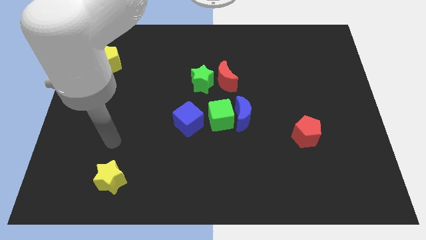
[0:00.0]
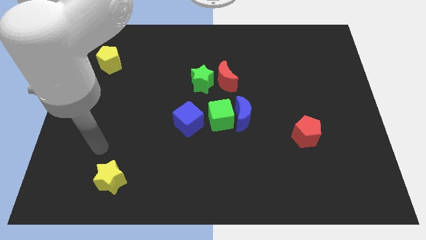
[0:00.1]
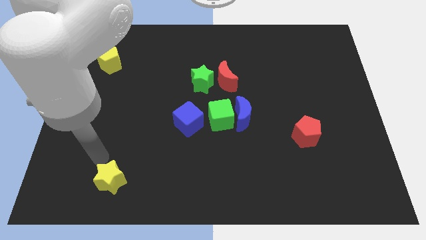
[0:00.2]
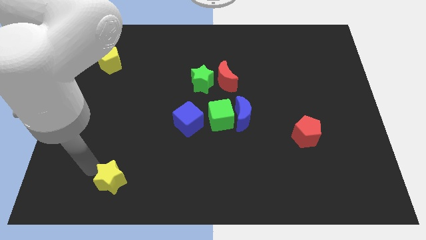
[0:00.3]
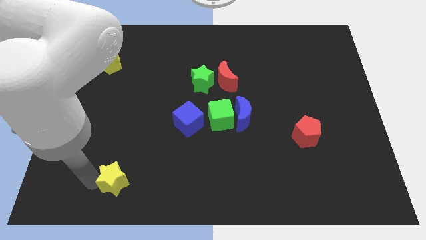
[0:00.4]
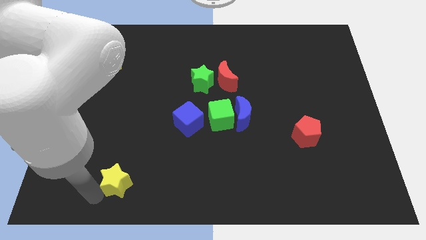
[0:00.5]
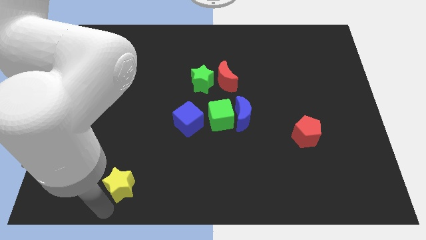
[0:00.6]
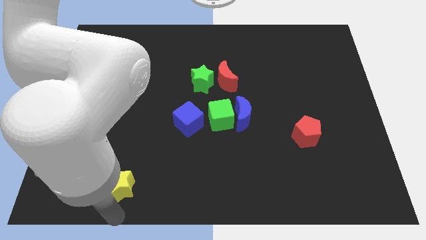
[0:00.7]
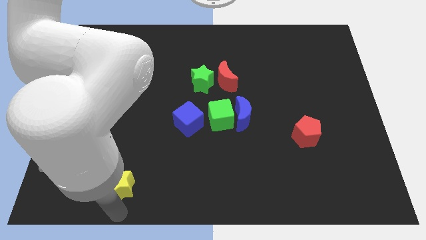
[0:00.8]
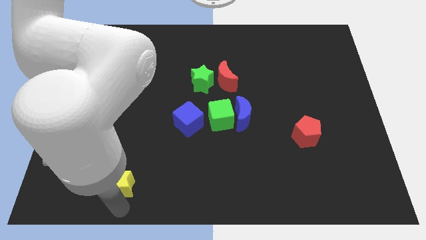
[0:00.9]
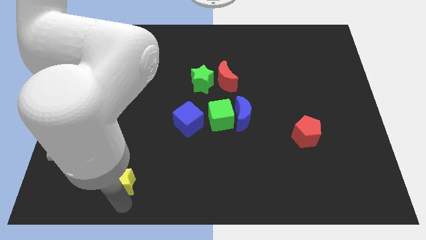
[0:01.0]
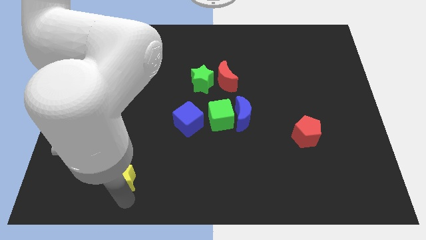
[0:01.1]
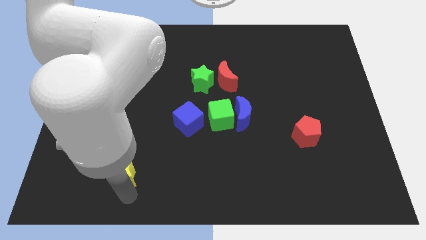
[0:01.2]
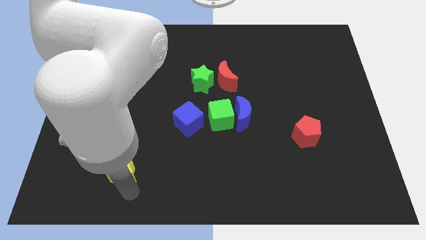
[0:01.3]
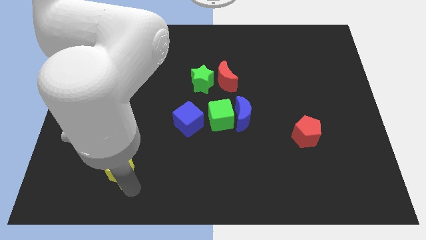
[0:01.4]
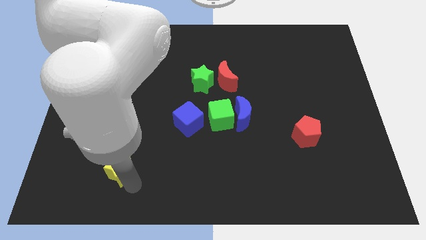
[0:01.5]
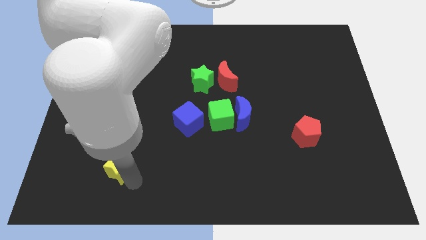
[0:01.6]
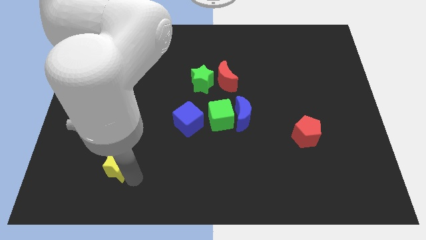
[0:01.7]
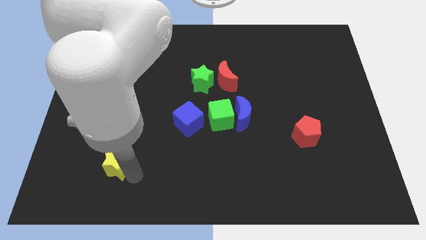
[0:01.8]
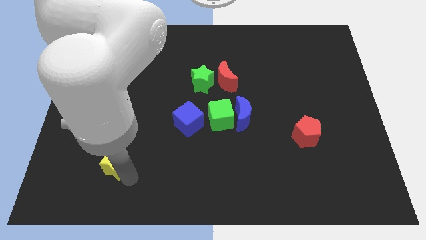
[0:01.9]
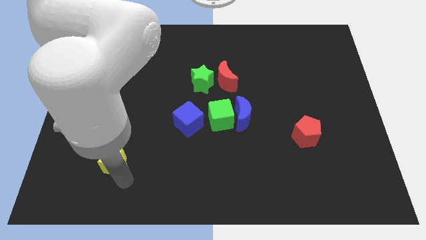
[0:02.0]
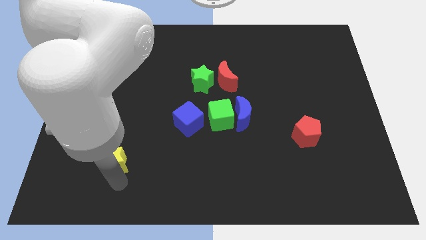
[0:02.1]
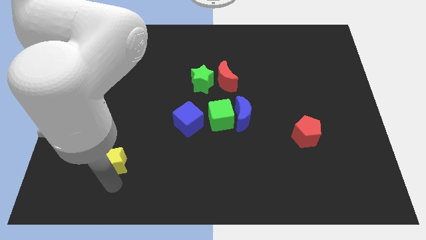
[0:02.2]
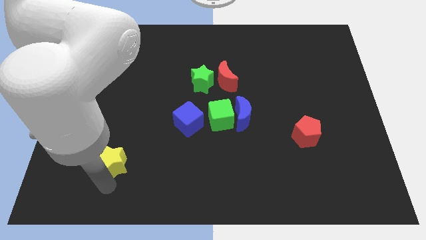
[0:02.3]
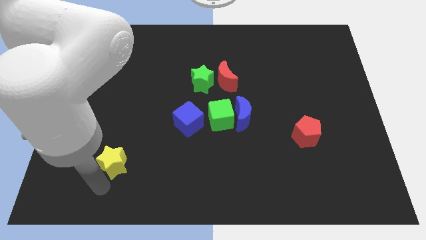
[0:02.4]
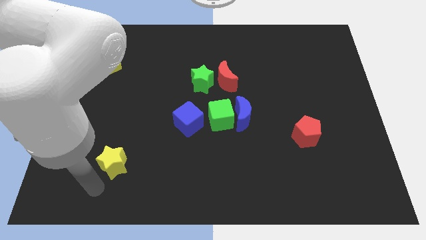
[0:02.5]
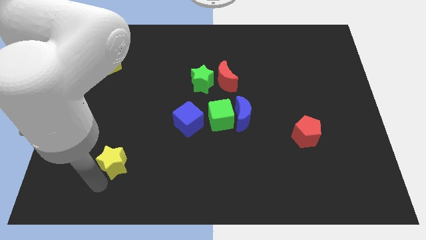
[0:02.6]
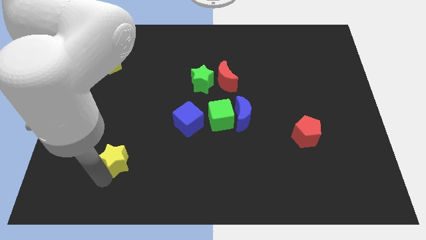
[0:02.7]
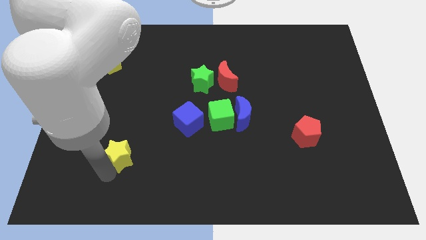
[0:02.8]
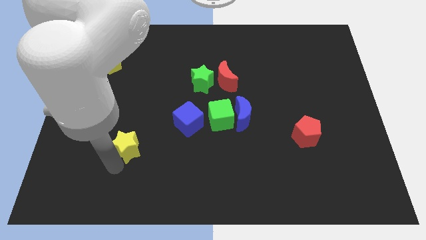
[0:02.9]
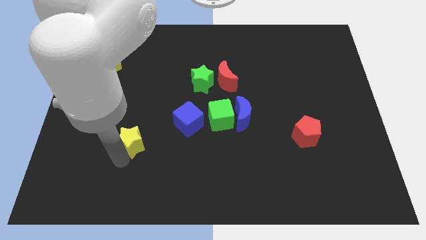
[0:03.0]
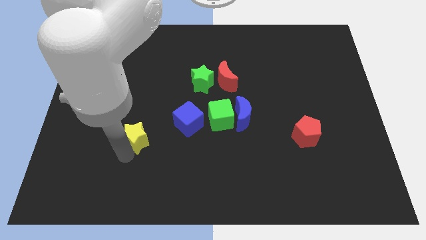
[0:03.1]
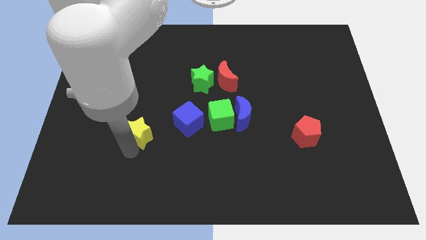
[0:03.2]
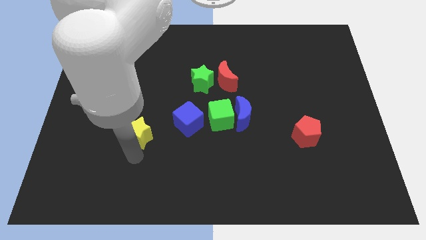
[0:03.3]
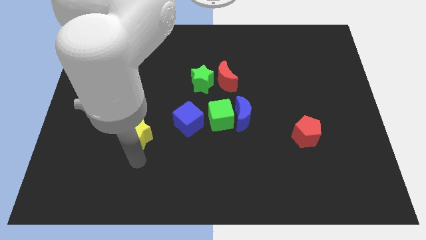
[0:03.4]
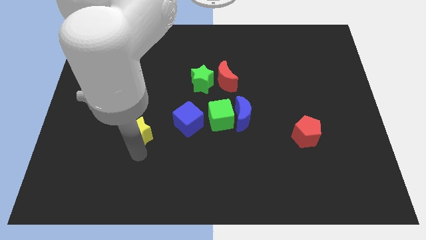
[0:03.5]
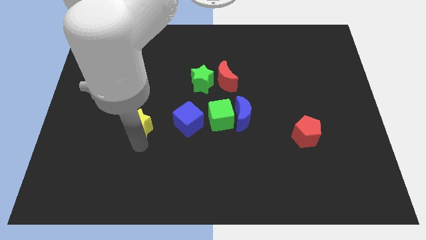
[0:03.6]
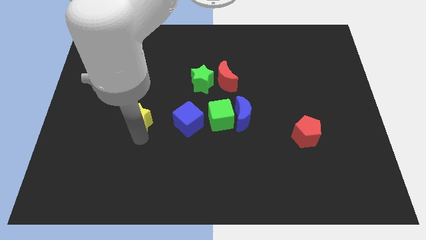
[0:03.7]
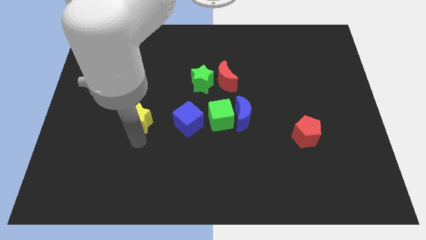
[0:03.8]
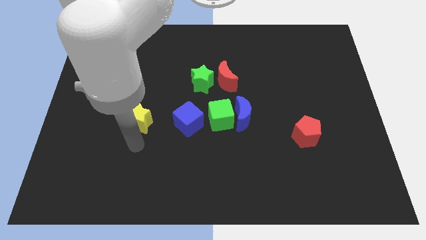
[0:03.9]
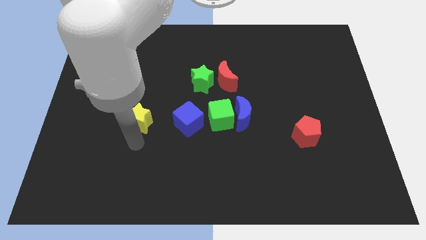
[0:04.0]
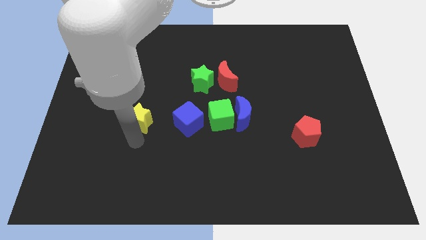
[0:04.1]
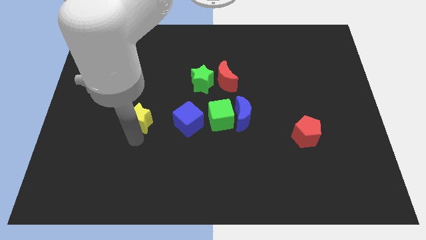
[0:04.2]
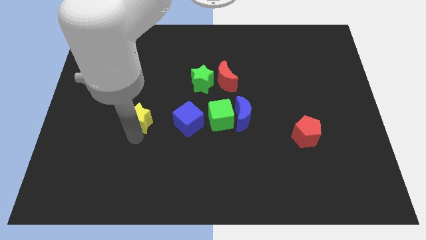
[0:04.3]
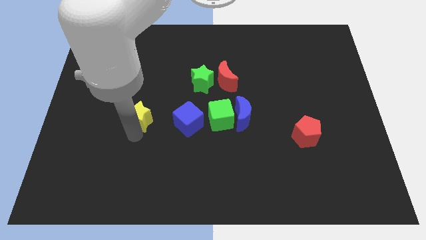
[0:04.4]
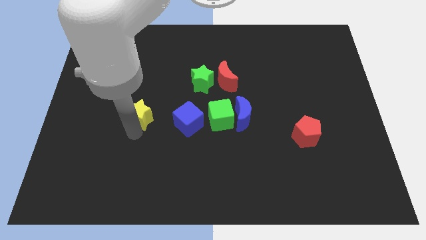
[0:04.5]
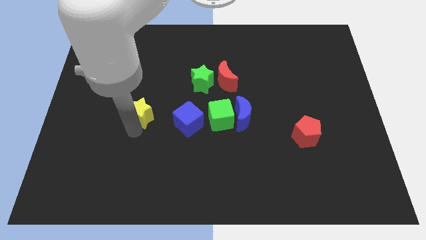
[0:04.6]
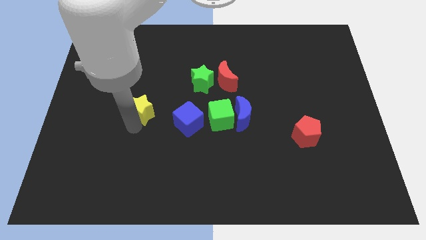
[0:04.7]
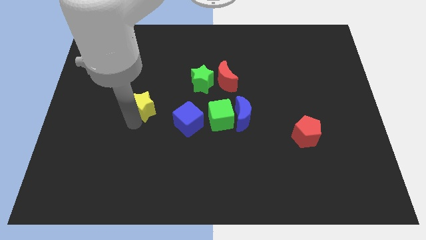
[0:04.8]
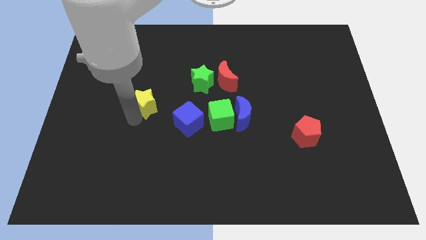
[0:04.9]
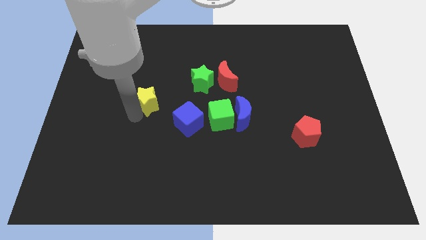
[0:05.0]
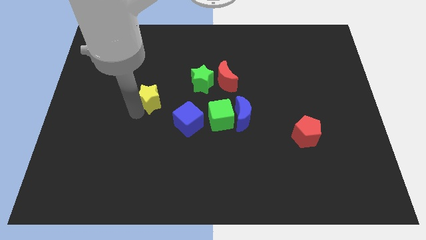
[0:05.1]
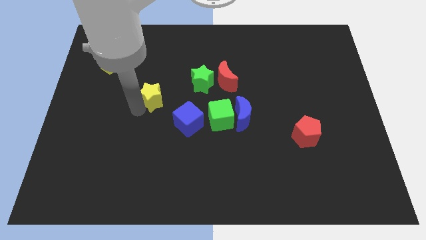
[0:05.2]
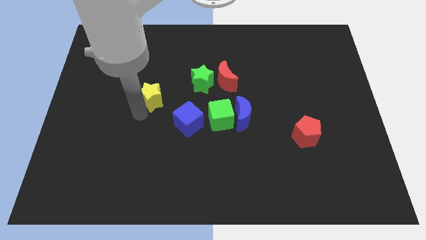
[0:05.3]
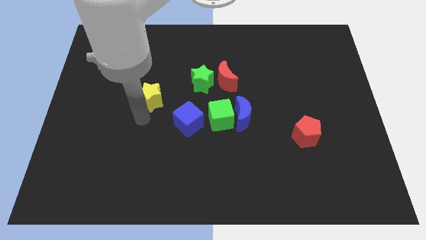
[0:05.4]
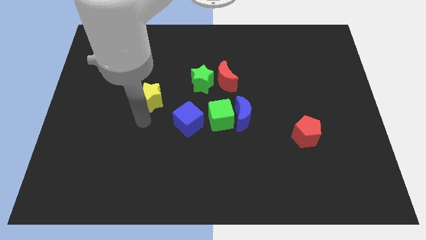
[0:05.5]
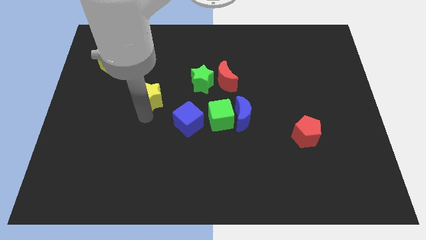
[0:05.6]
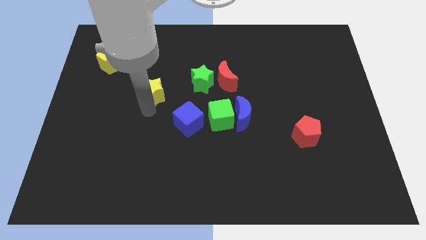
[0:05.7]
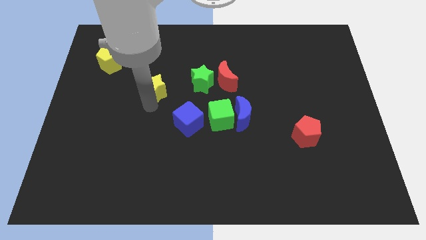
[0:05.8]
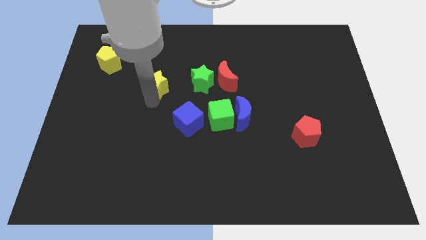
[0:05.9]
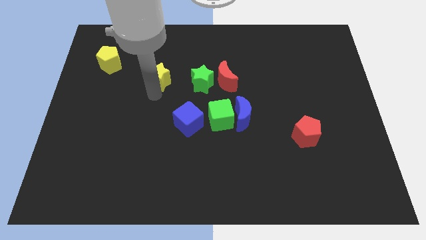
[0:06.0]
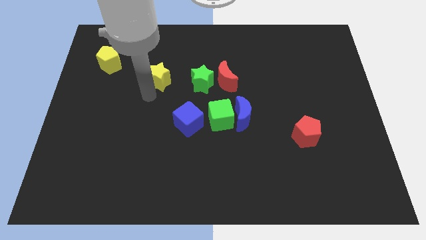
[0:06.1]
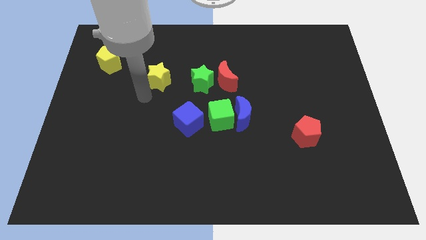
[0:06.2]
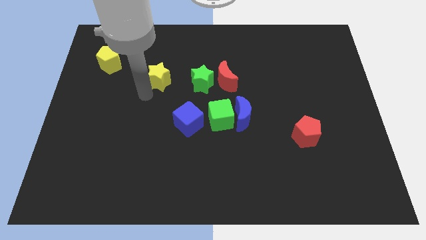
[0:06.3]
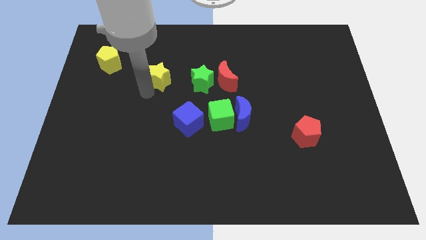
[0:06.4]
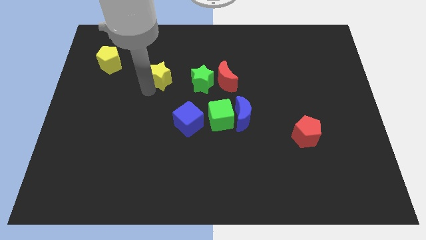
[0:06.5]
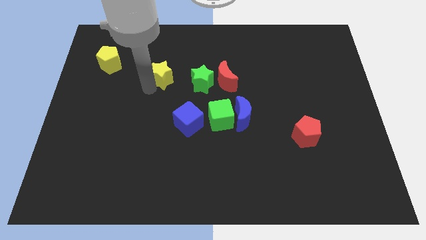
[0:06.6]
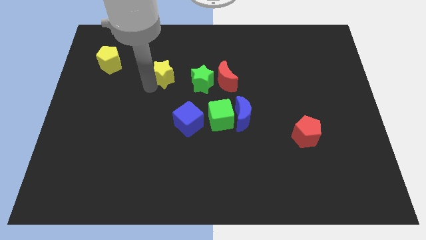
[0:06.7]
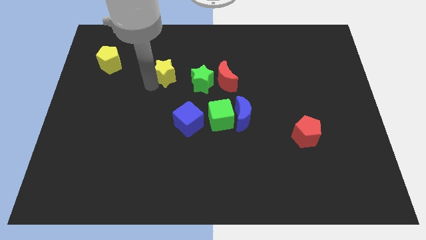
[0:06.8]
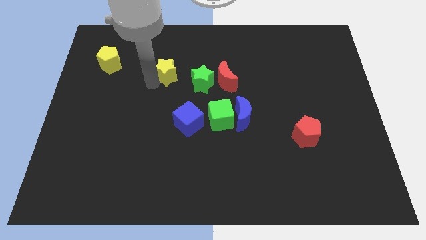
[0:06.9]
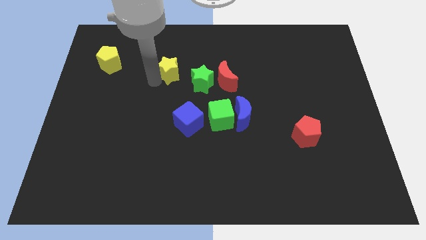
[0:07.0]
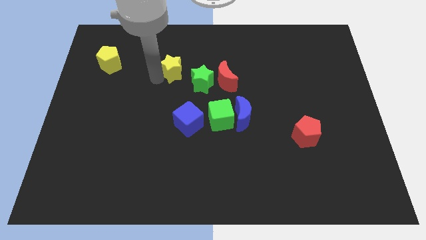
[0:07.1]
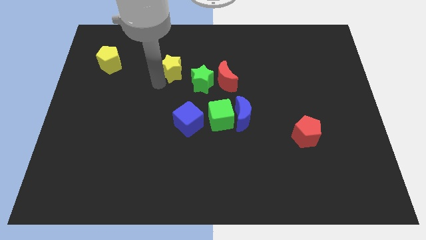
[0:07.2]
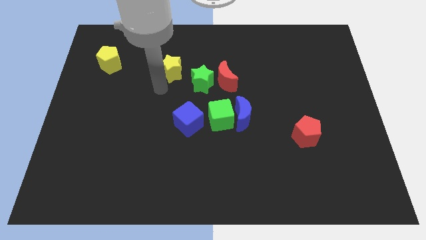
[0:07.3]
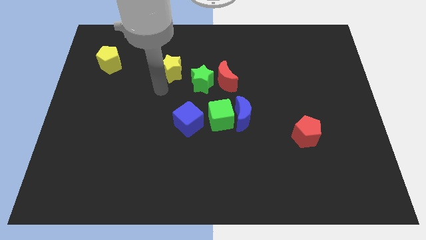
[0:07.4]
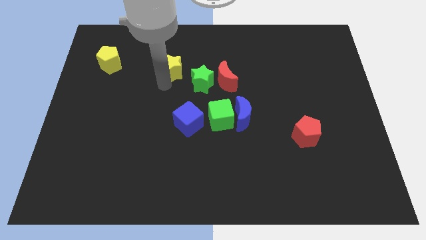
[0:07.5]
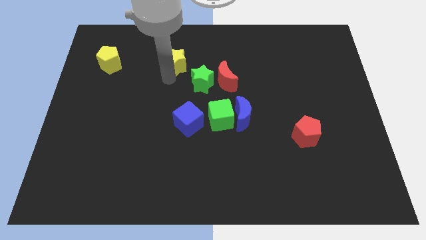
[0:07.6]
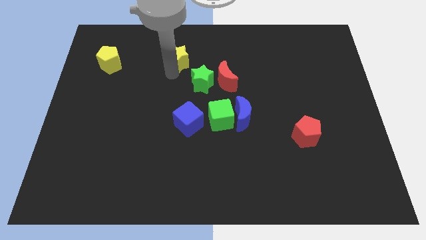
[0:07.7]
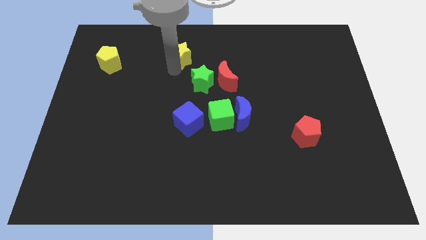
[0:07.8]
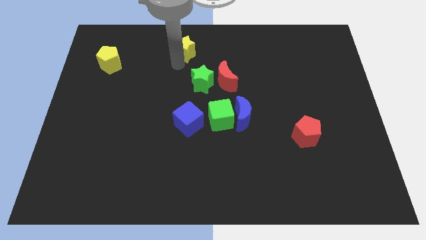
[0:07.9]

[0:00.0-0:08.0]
move the yellow star to the towards your base
